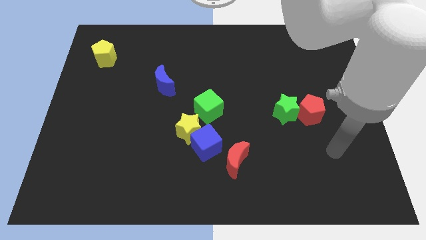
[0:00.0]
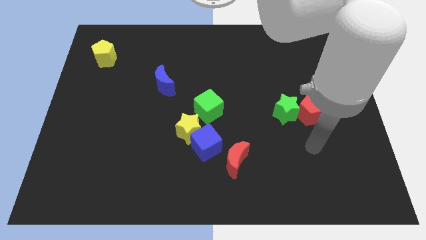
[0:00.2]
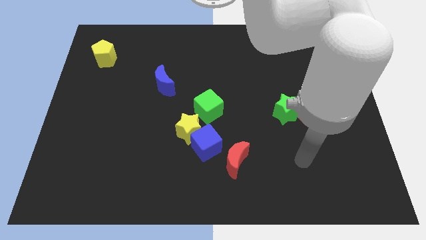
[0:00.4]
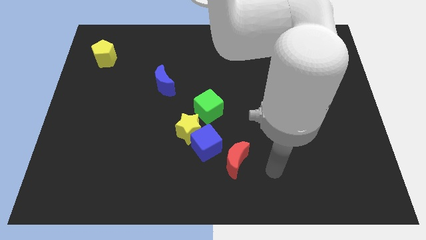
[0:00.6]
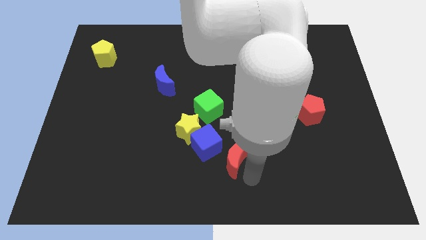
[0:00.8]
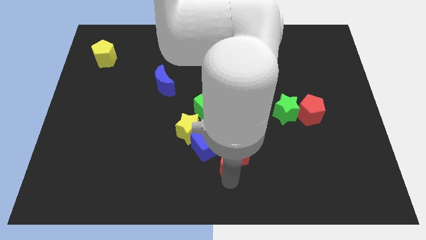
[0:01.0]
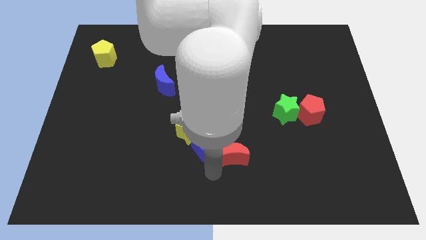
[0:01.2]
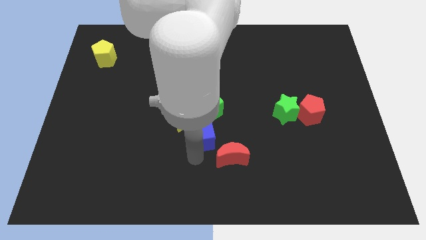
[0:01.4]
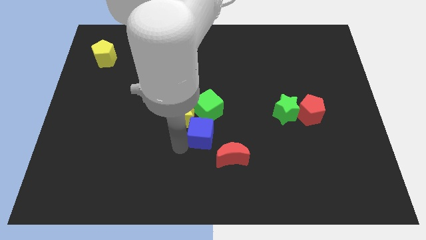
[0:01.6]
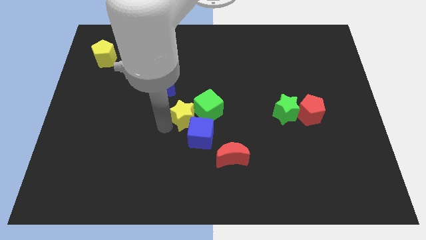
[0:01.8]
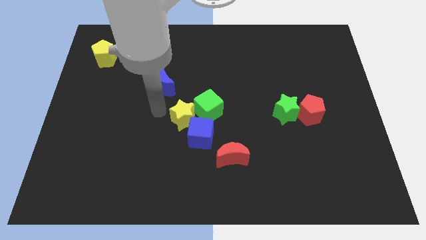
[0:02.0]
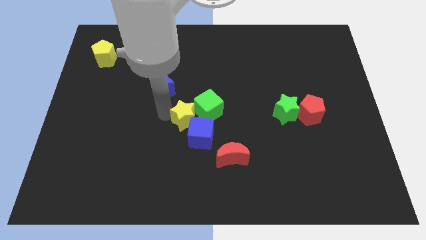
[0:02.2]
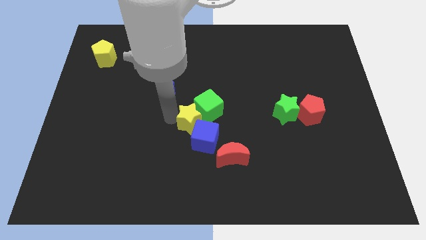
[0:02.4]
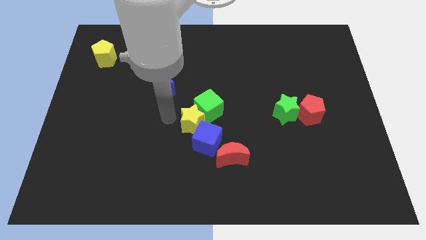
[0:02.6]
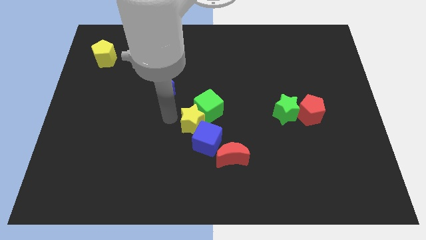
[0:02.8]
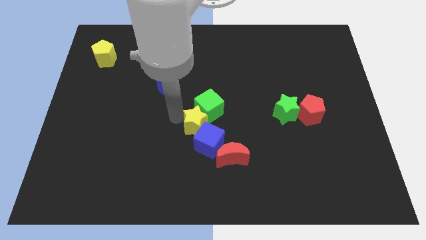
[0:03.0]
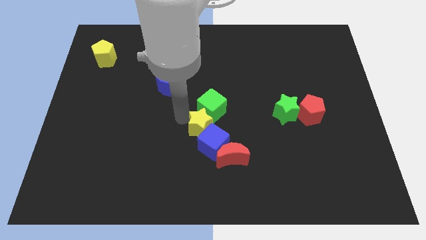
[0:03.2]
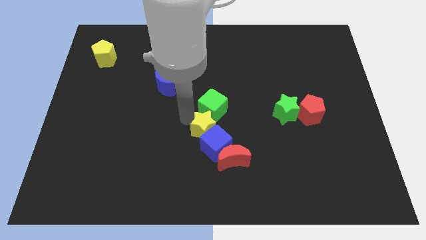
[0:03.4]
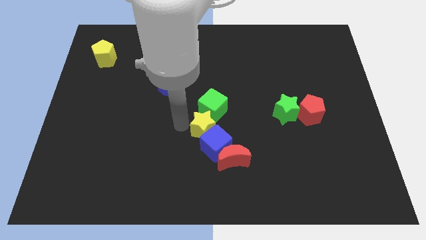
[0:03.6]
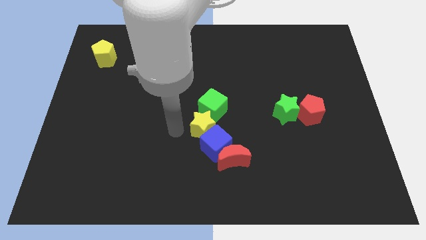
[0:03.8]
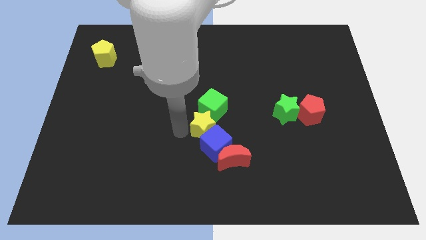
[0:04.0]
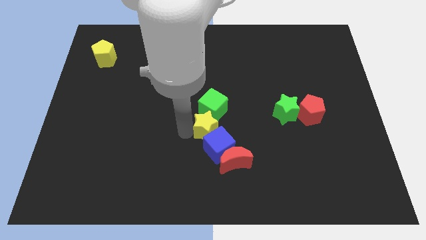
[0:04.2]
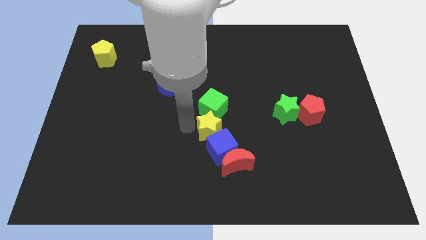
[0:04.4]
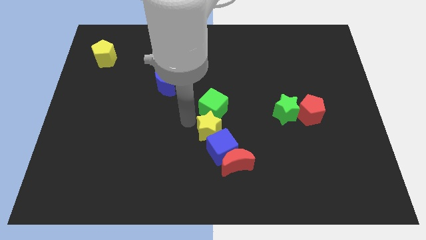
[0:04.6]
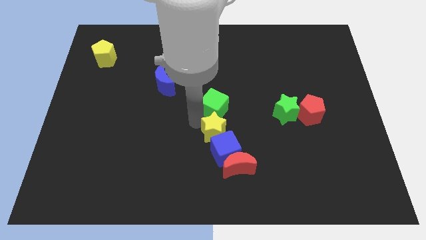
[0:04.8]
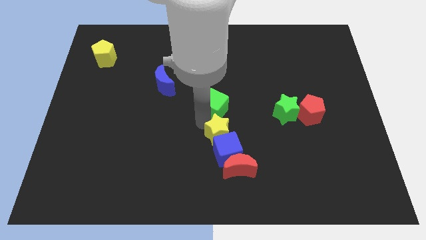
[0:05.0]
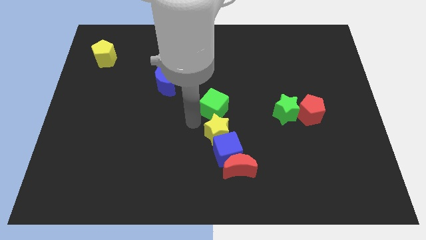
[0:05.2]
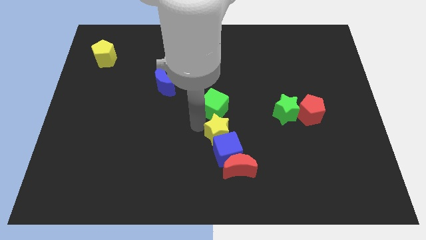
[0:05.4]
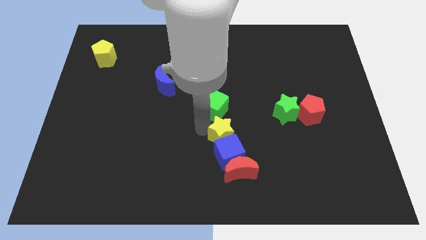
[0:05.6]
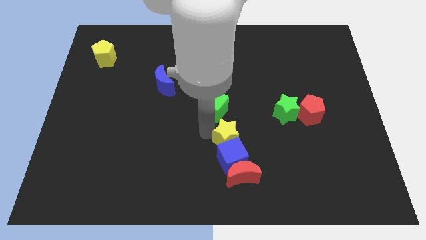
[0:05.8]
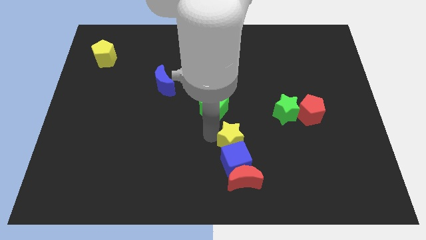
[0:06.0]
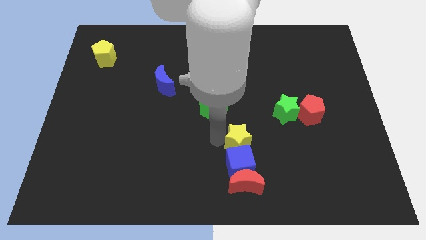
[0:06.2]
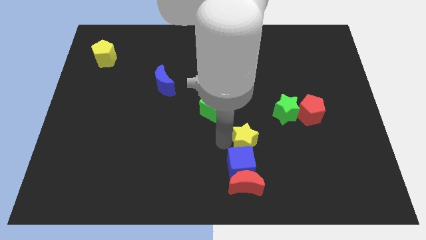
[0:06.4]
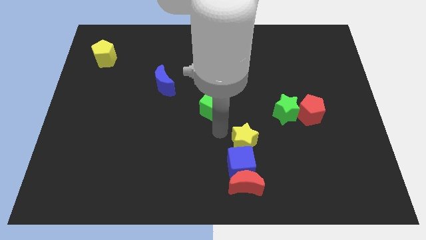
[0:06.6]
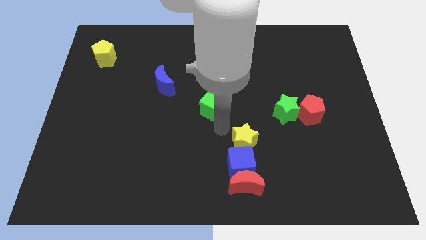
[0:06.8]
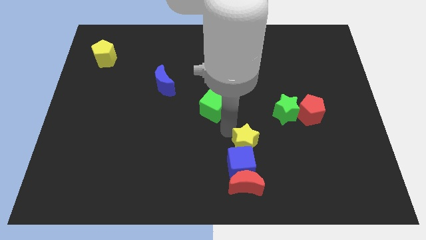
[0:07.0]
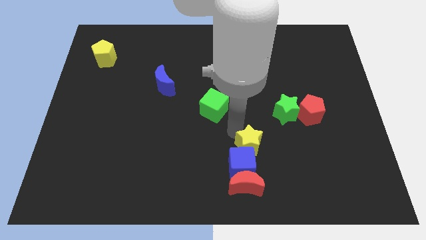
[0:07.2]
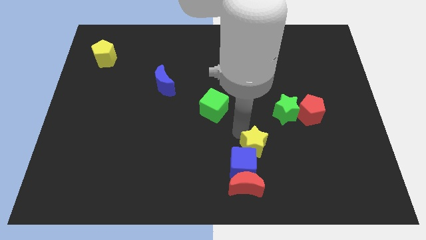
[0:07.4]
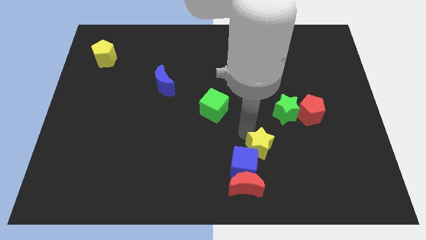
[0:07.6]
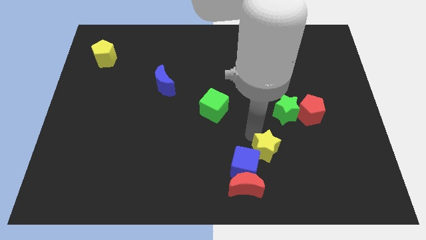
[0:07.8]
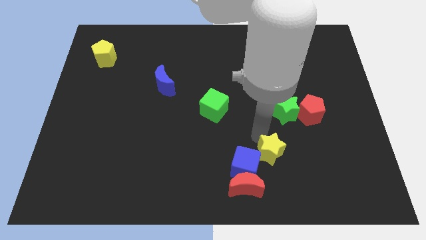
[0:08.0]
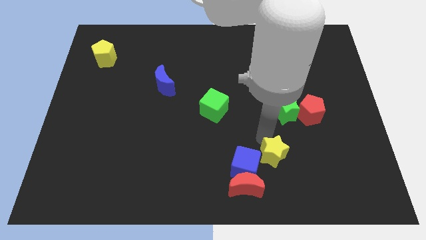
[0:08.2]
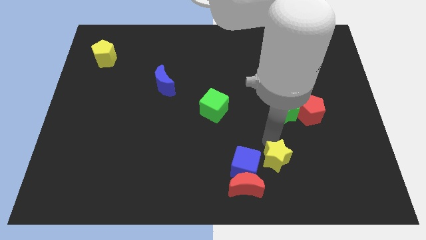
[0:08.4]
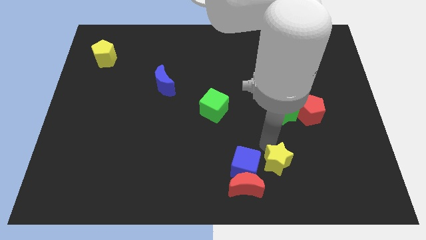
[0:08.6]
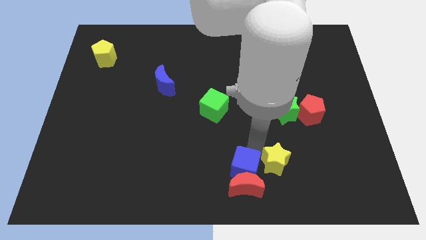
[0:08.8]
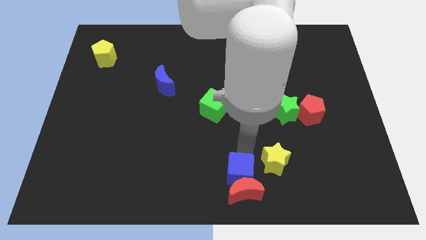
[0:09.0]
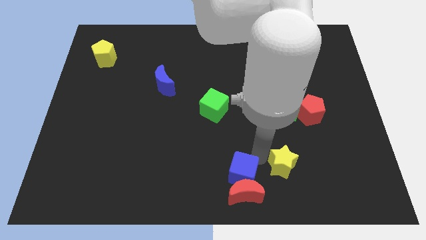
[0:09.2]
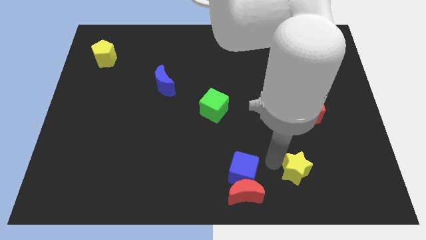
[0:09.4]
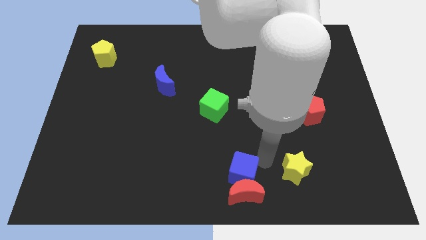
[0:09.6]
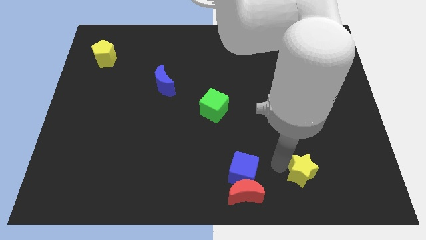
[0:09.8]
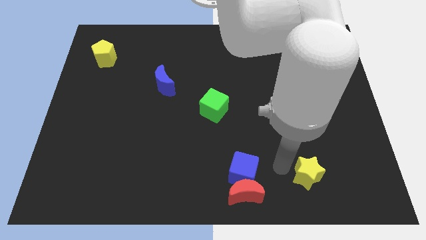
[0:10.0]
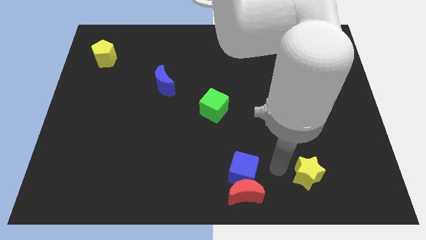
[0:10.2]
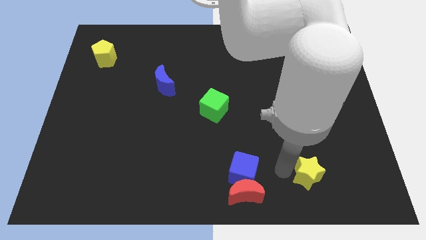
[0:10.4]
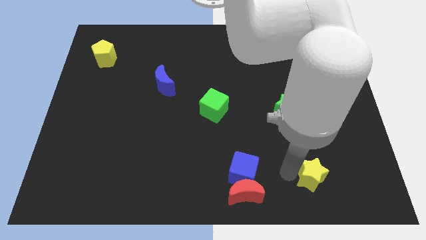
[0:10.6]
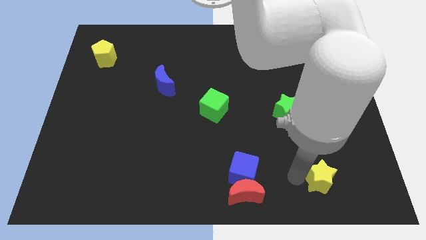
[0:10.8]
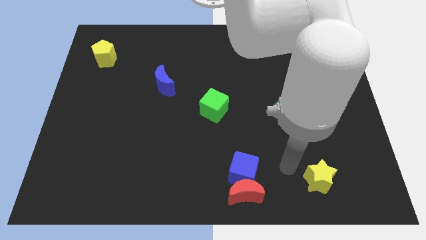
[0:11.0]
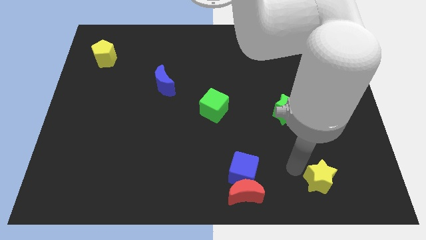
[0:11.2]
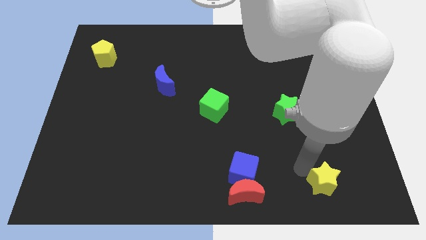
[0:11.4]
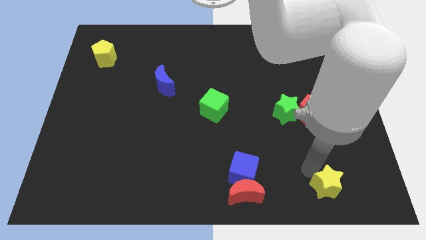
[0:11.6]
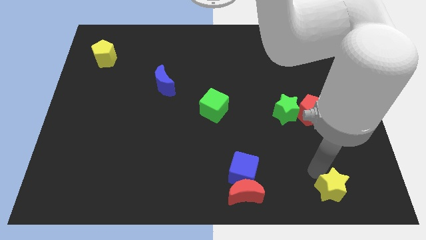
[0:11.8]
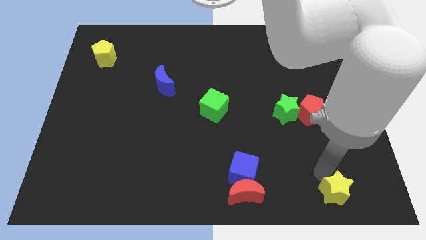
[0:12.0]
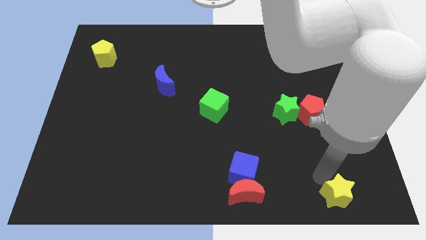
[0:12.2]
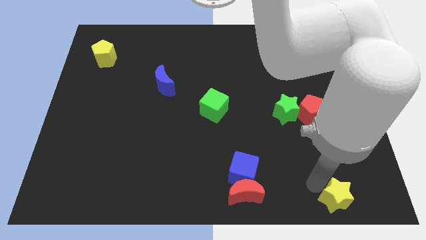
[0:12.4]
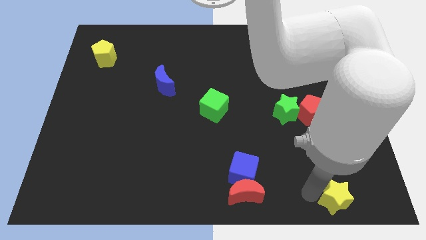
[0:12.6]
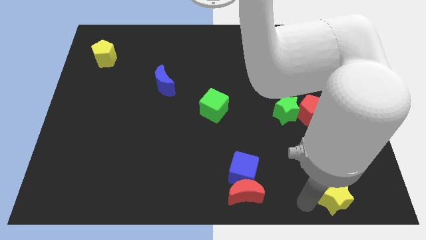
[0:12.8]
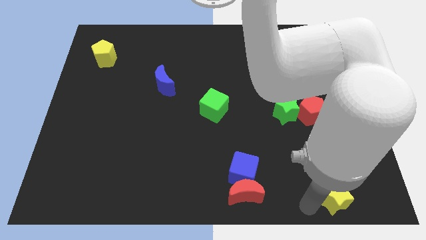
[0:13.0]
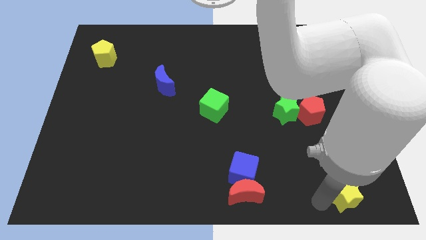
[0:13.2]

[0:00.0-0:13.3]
slide the yellow star to the bottom right corner
